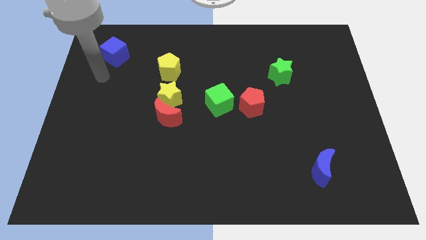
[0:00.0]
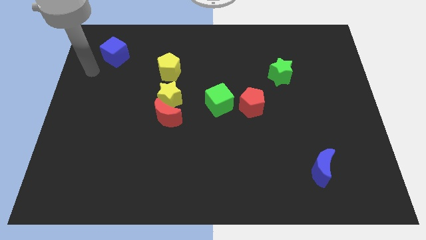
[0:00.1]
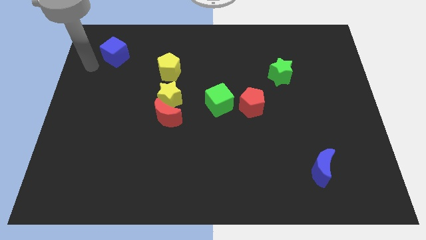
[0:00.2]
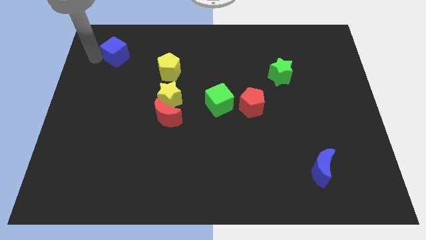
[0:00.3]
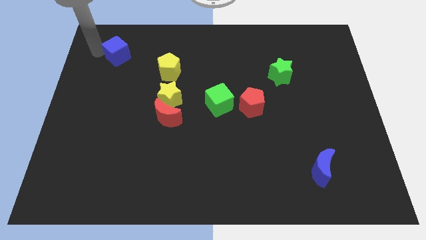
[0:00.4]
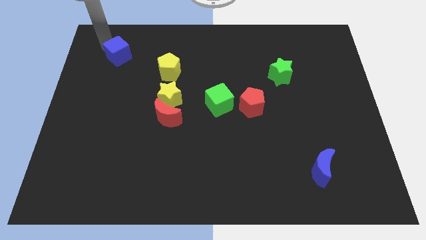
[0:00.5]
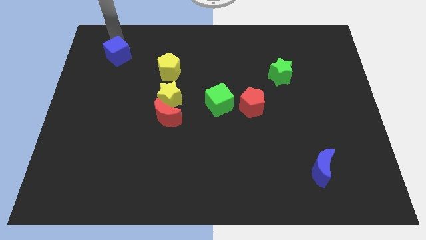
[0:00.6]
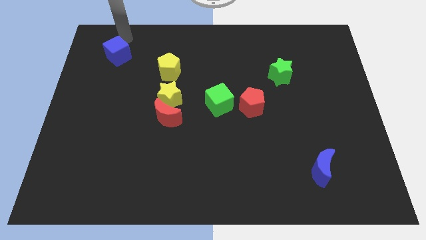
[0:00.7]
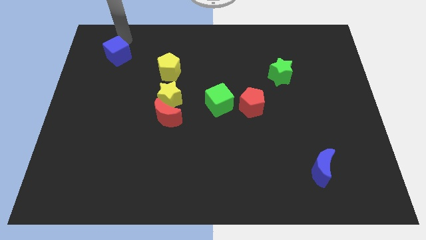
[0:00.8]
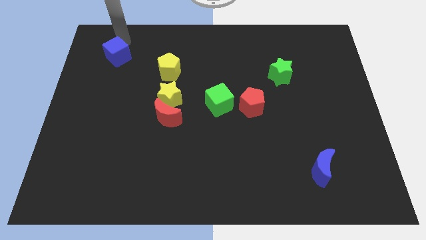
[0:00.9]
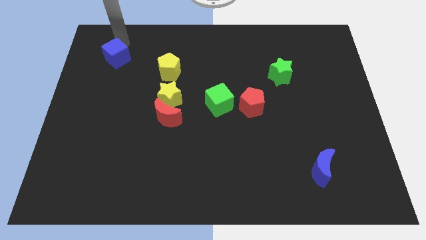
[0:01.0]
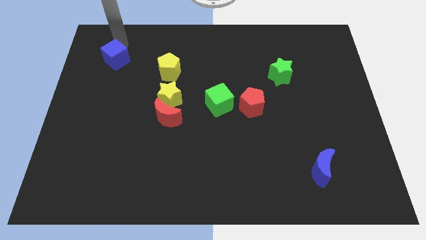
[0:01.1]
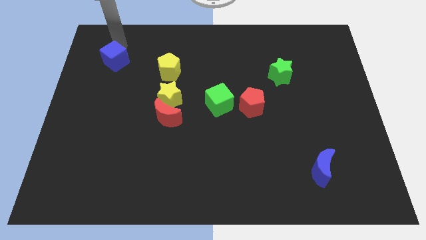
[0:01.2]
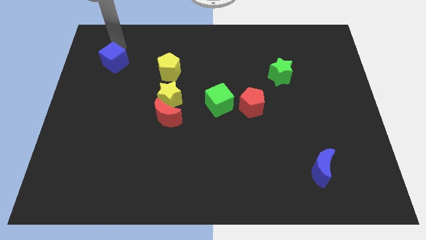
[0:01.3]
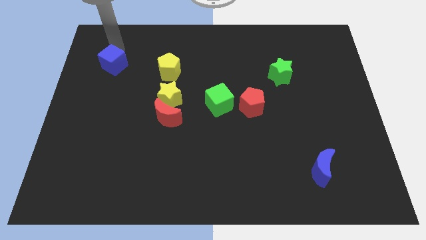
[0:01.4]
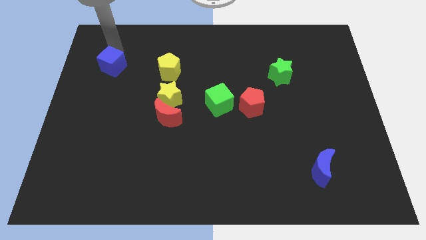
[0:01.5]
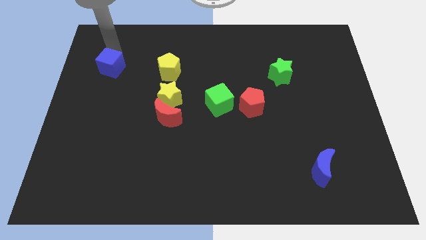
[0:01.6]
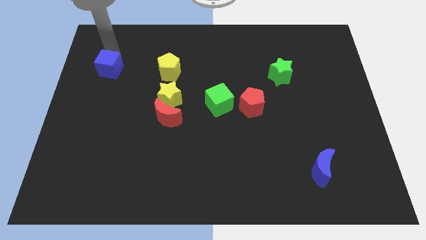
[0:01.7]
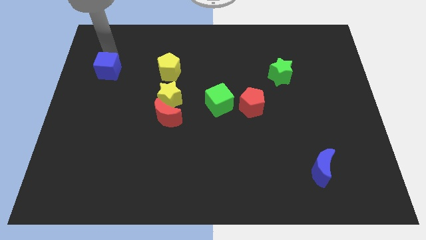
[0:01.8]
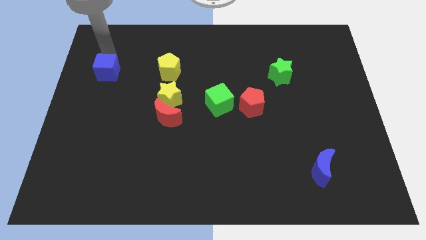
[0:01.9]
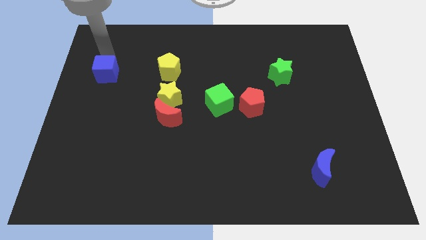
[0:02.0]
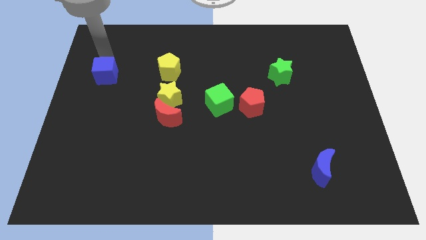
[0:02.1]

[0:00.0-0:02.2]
push the blue cube slightly downwards

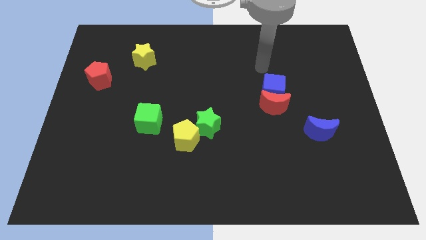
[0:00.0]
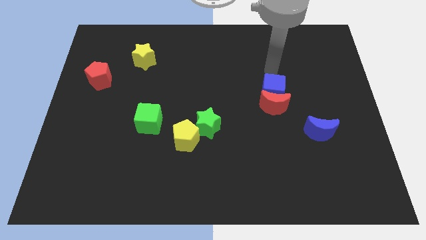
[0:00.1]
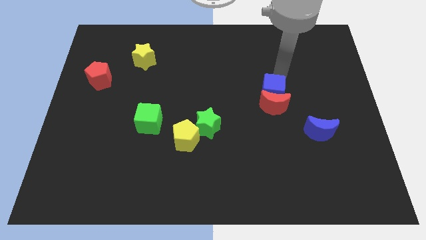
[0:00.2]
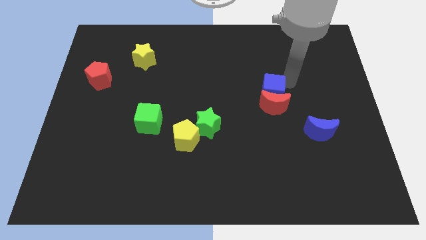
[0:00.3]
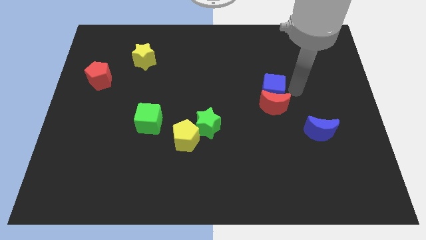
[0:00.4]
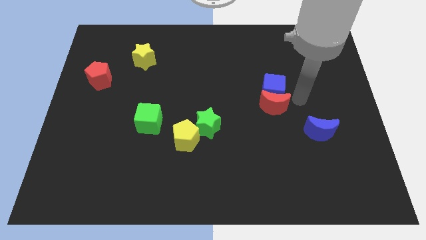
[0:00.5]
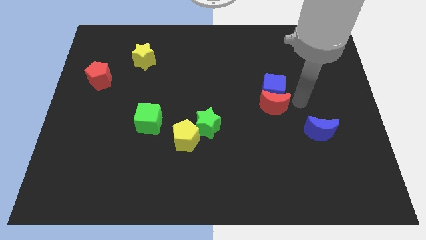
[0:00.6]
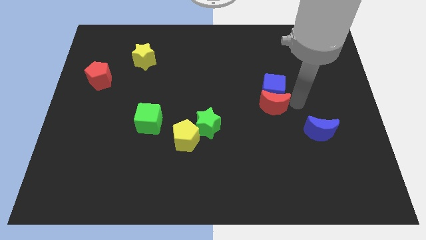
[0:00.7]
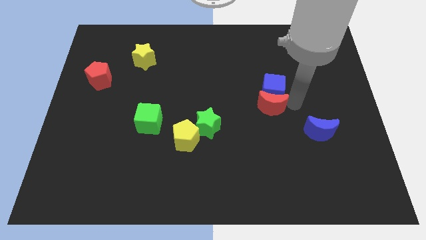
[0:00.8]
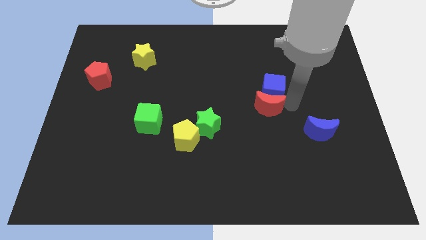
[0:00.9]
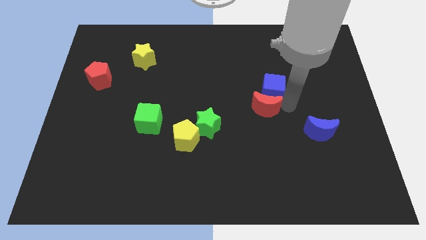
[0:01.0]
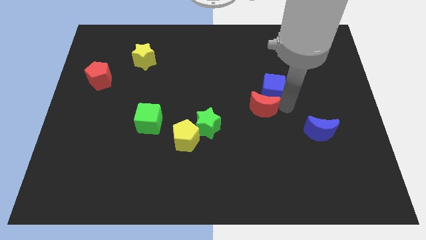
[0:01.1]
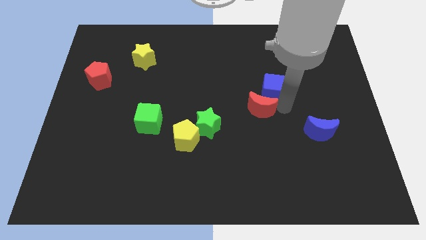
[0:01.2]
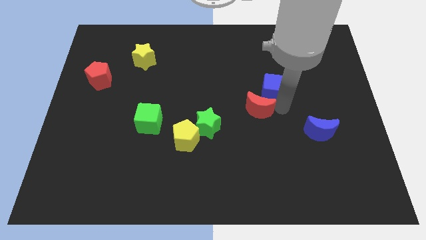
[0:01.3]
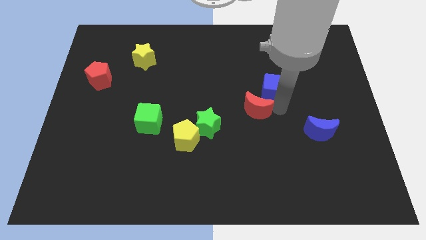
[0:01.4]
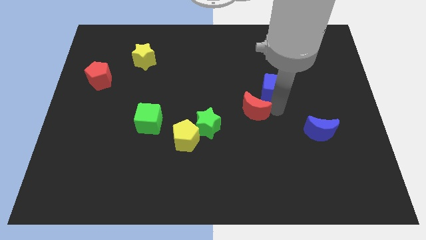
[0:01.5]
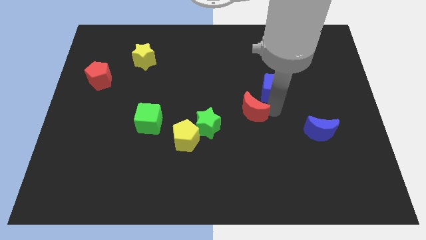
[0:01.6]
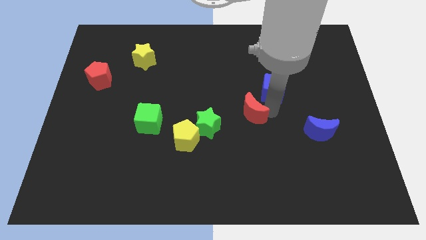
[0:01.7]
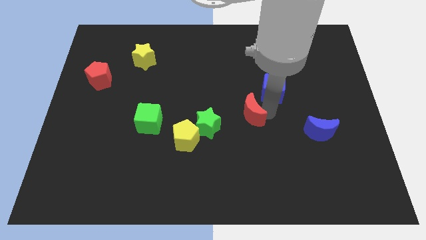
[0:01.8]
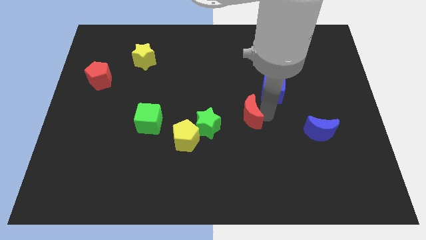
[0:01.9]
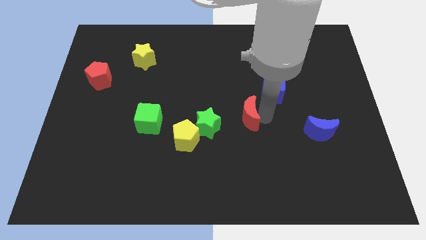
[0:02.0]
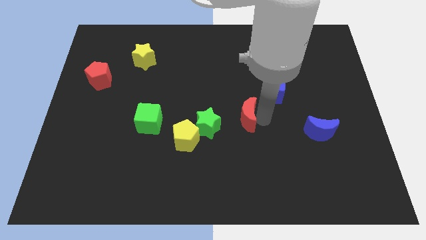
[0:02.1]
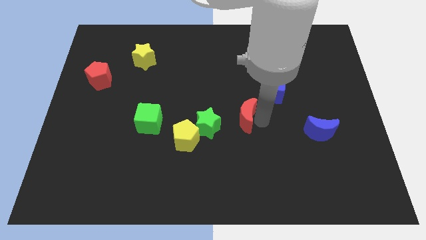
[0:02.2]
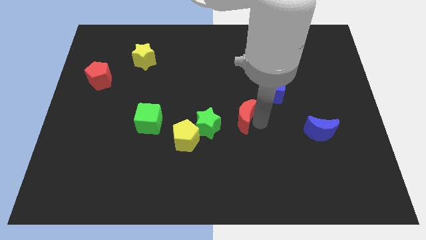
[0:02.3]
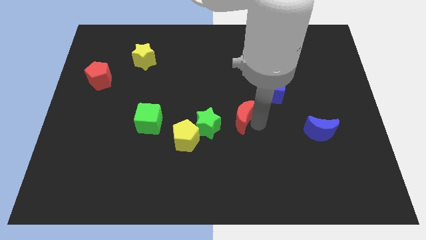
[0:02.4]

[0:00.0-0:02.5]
push the red moon to the left slightly

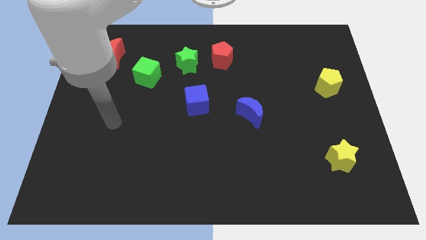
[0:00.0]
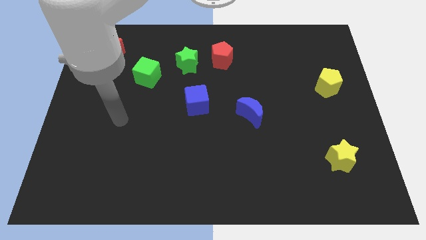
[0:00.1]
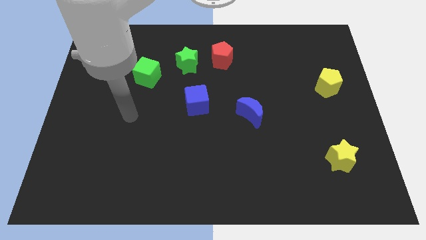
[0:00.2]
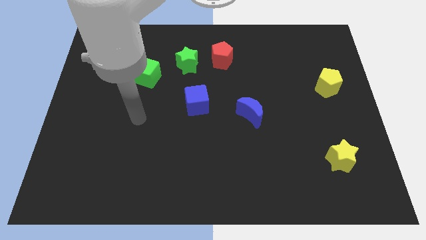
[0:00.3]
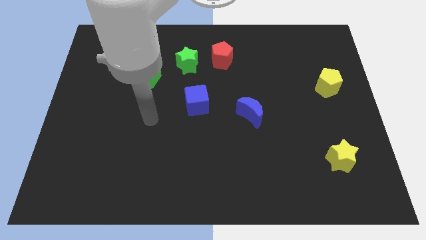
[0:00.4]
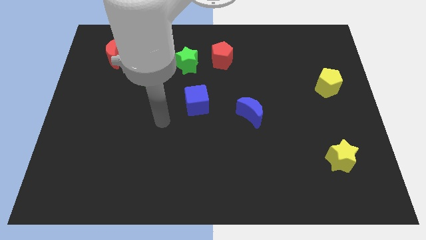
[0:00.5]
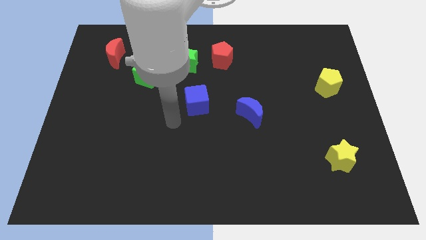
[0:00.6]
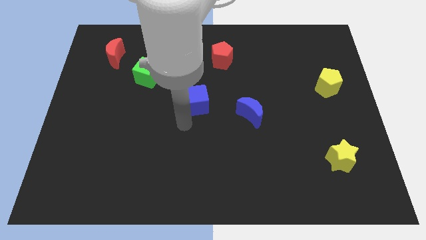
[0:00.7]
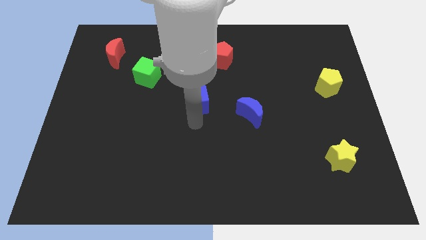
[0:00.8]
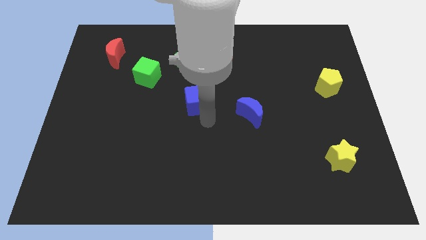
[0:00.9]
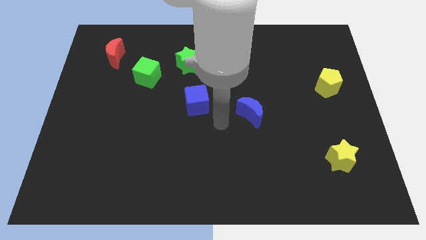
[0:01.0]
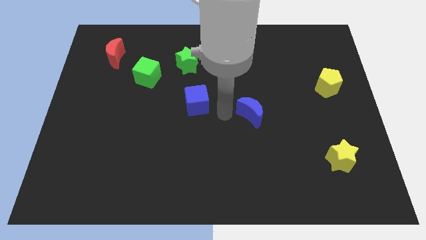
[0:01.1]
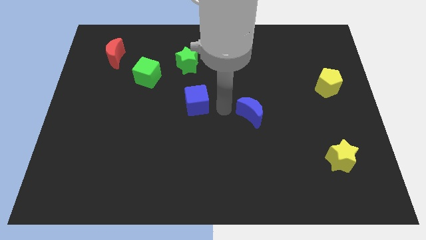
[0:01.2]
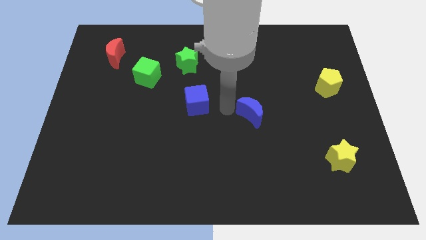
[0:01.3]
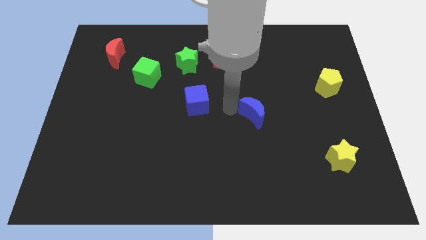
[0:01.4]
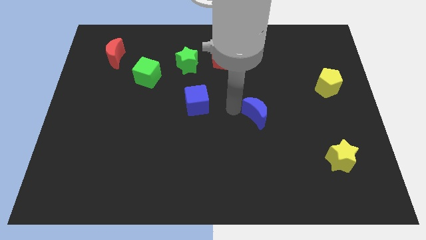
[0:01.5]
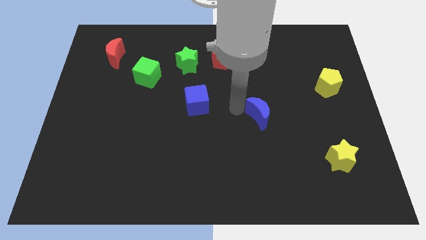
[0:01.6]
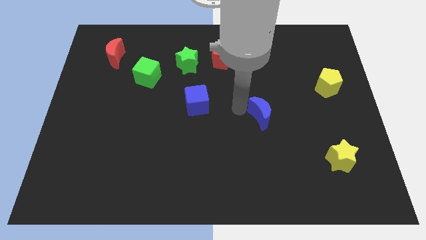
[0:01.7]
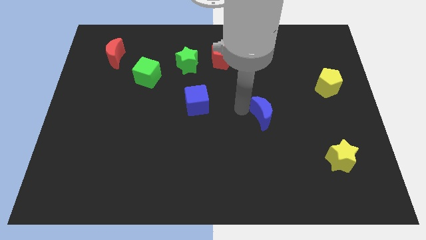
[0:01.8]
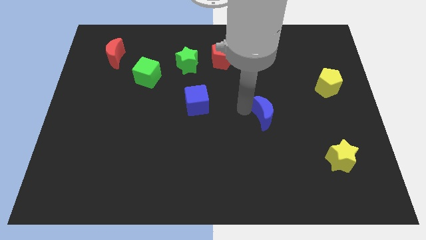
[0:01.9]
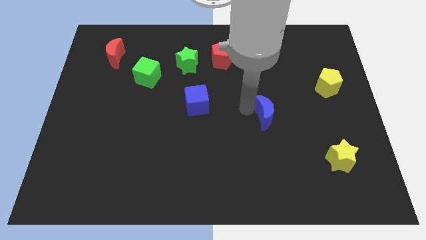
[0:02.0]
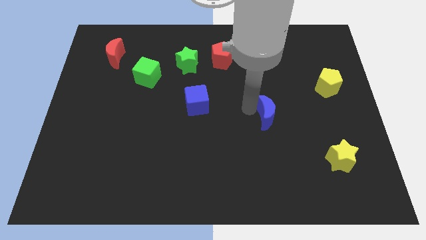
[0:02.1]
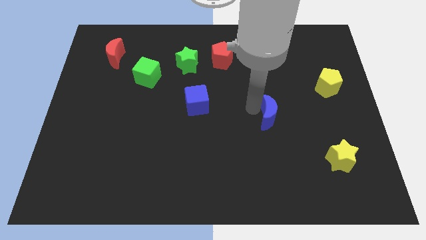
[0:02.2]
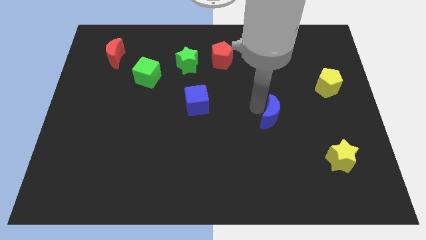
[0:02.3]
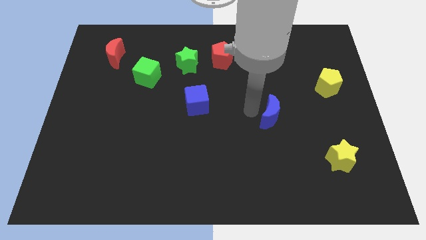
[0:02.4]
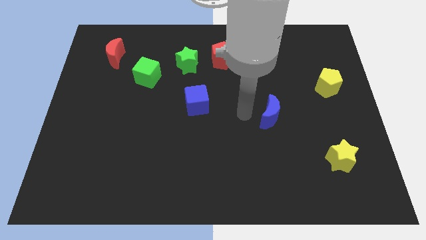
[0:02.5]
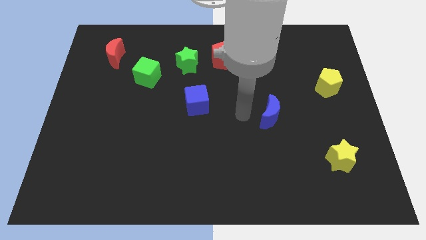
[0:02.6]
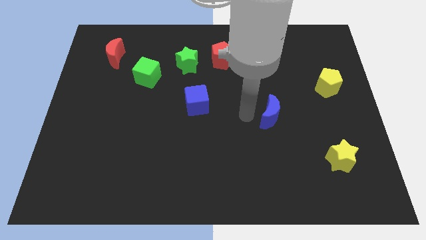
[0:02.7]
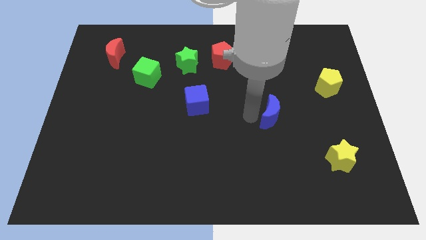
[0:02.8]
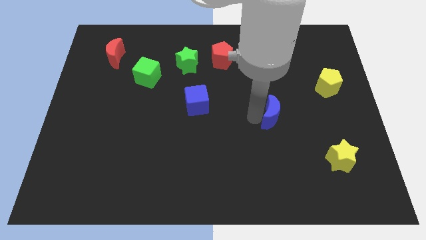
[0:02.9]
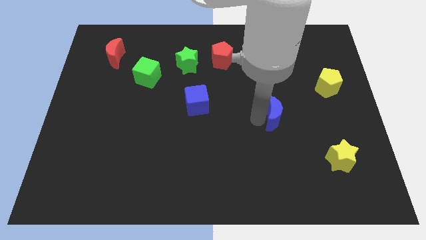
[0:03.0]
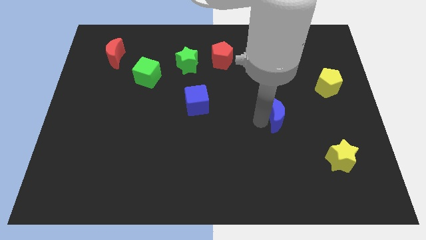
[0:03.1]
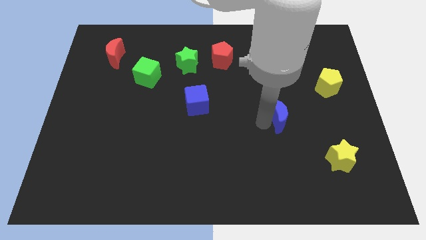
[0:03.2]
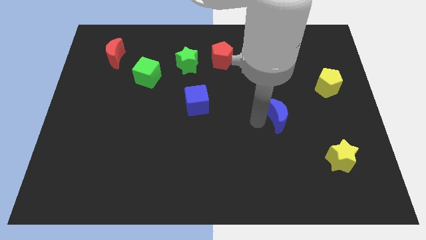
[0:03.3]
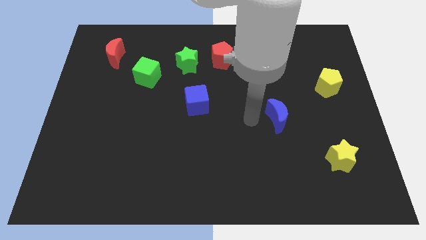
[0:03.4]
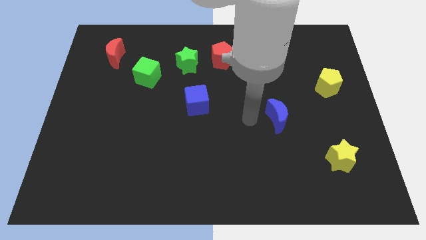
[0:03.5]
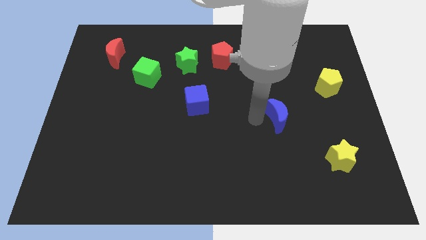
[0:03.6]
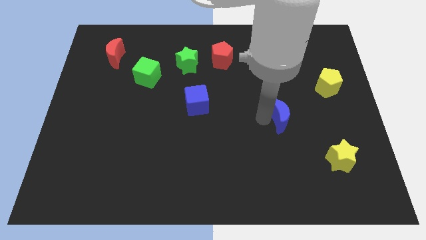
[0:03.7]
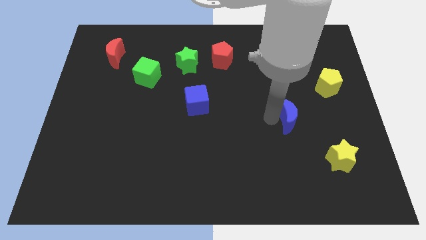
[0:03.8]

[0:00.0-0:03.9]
slightly move the blue moon right
